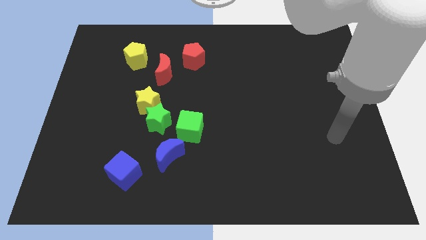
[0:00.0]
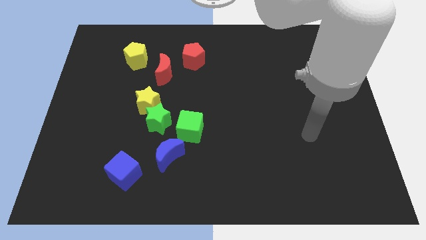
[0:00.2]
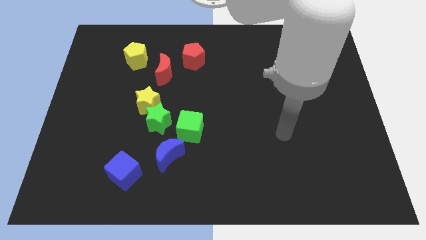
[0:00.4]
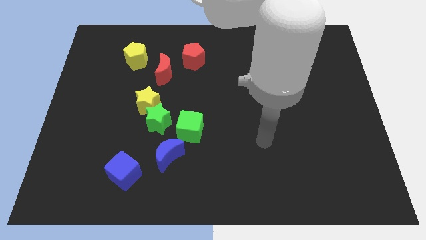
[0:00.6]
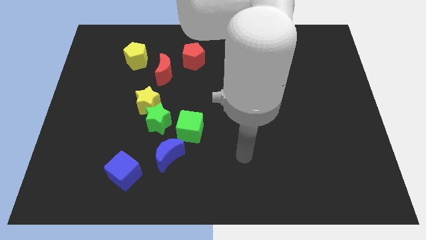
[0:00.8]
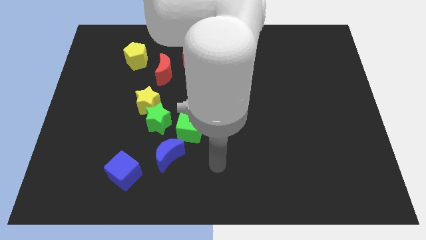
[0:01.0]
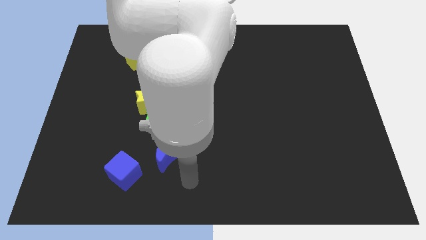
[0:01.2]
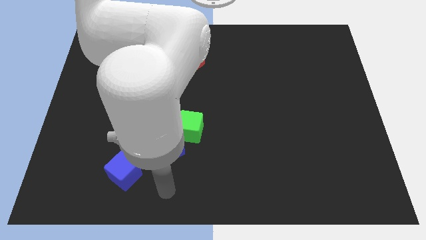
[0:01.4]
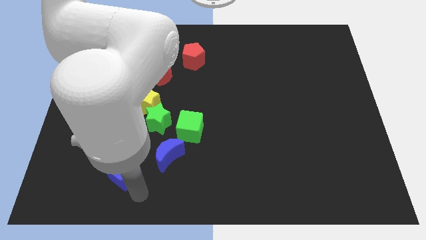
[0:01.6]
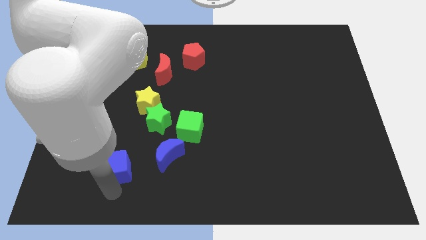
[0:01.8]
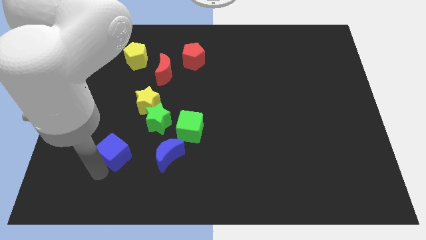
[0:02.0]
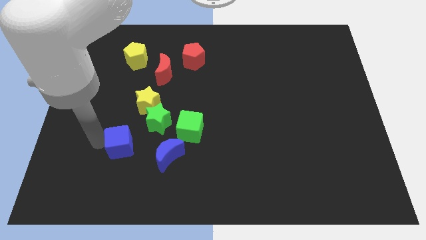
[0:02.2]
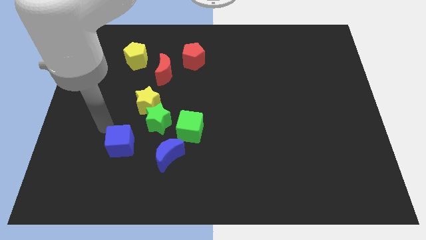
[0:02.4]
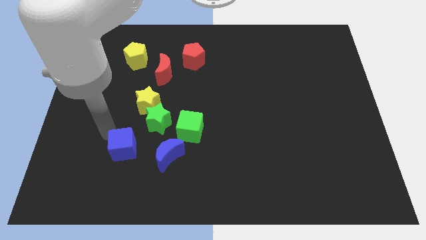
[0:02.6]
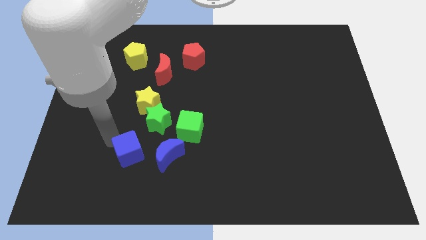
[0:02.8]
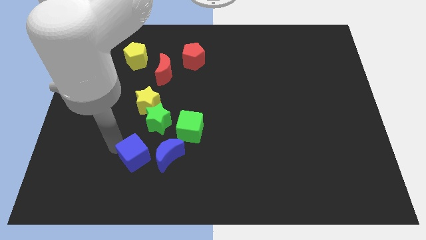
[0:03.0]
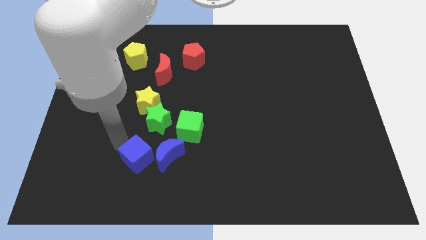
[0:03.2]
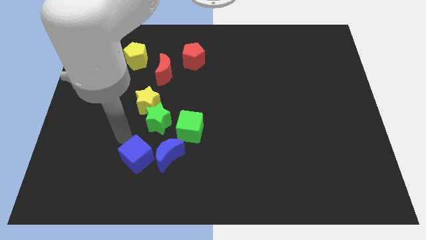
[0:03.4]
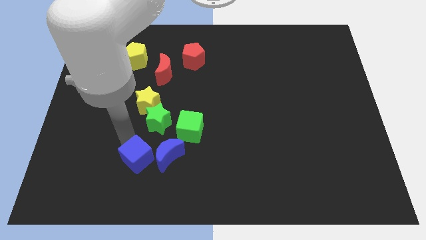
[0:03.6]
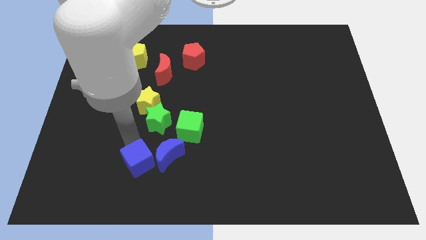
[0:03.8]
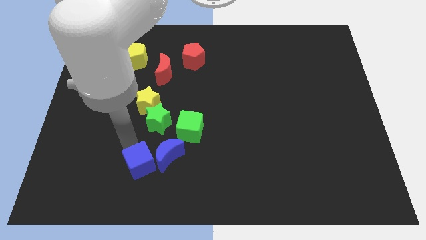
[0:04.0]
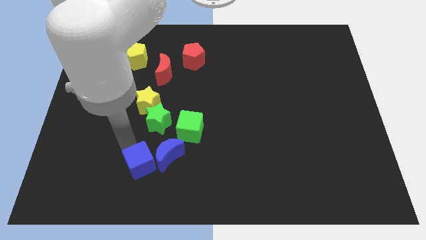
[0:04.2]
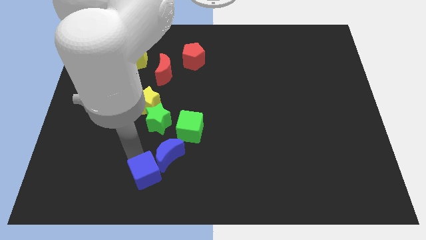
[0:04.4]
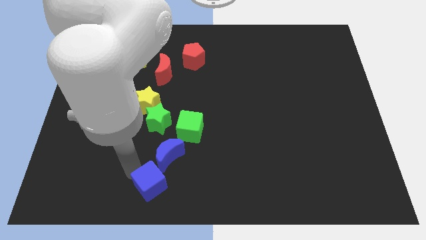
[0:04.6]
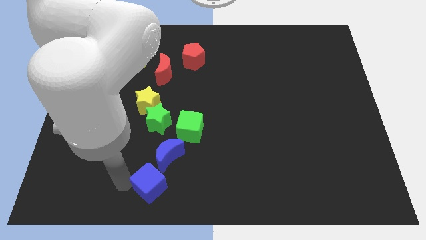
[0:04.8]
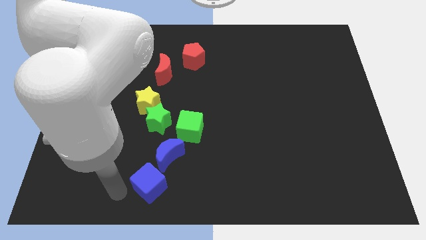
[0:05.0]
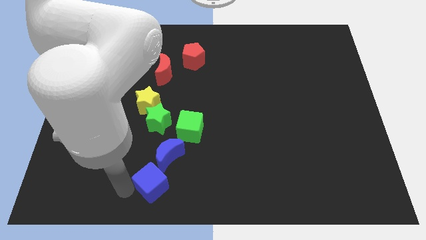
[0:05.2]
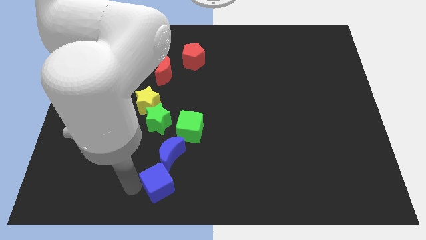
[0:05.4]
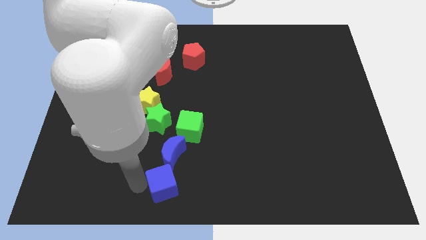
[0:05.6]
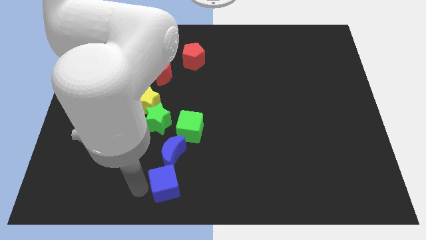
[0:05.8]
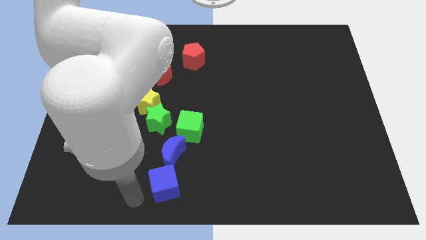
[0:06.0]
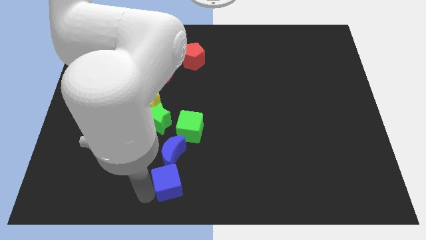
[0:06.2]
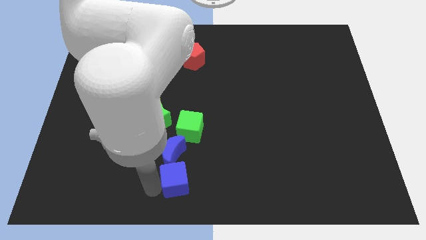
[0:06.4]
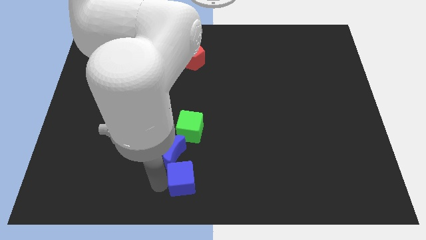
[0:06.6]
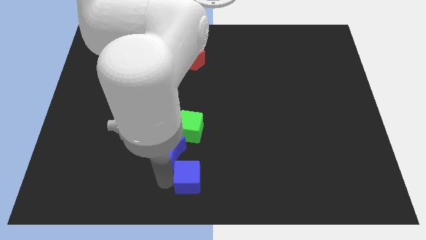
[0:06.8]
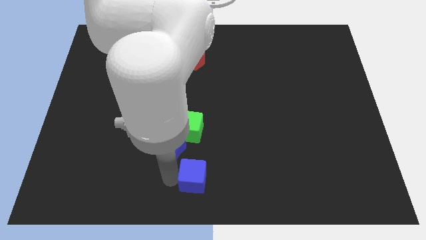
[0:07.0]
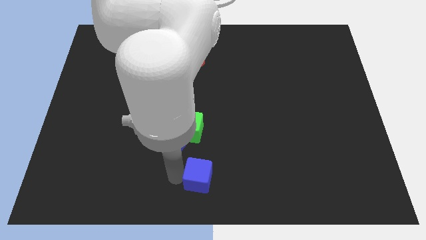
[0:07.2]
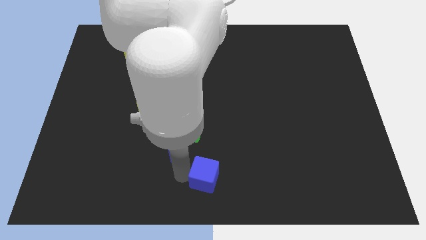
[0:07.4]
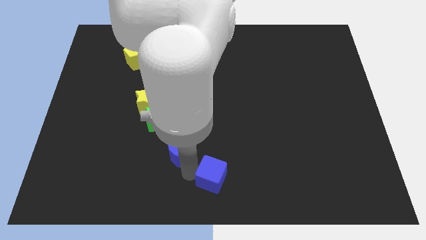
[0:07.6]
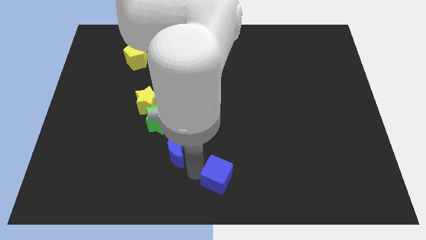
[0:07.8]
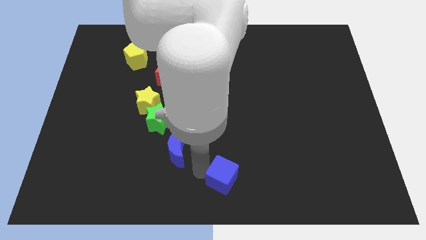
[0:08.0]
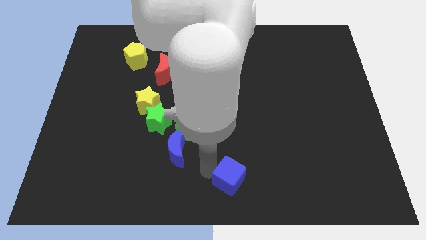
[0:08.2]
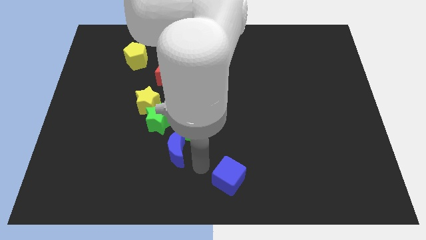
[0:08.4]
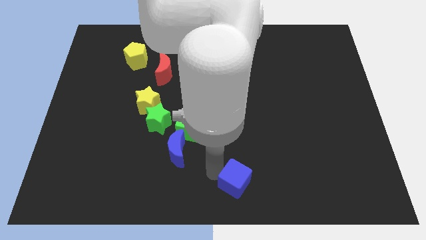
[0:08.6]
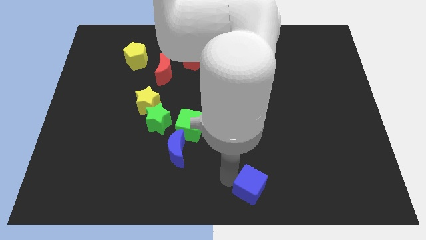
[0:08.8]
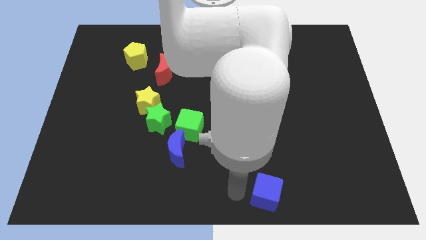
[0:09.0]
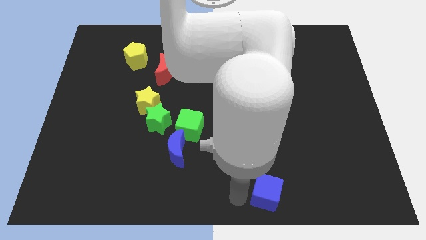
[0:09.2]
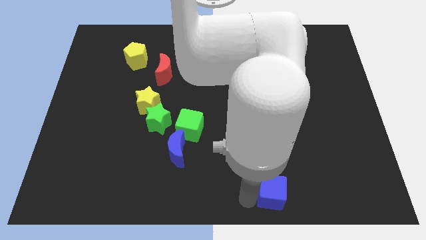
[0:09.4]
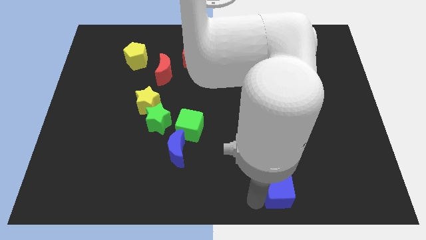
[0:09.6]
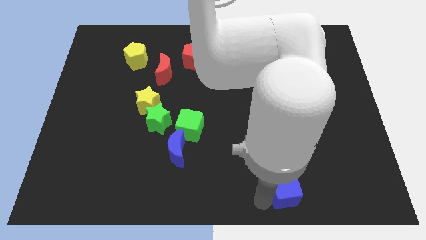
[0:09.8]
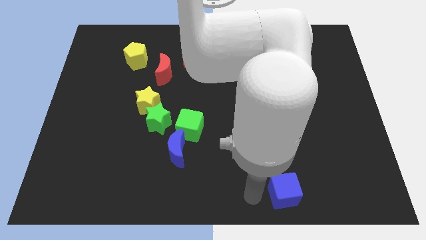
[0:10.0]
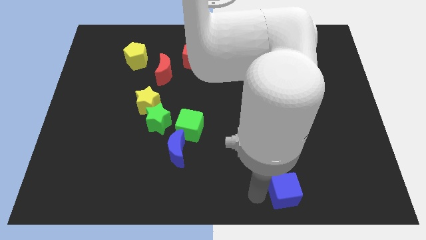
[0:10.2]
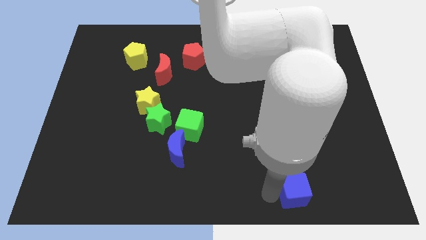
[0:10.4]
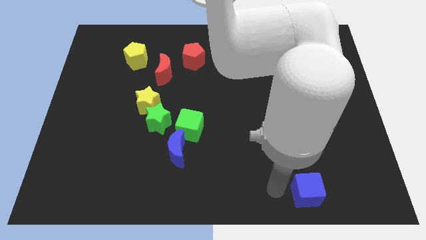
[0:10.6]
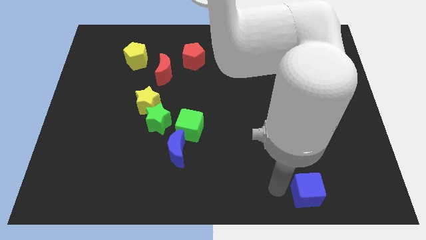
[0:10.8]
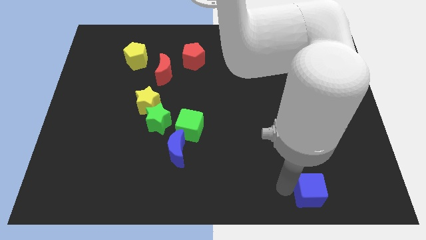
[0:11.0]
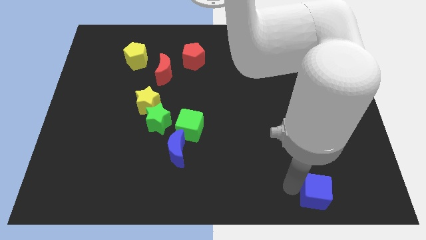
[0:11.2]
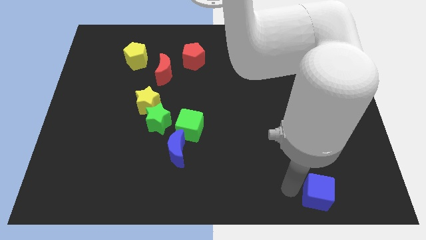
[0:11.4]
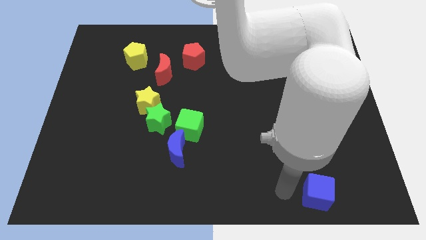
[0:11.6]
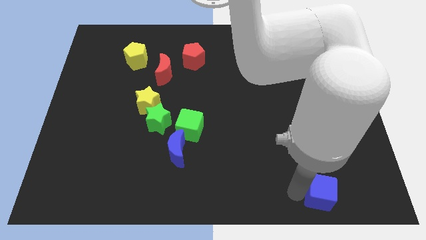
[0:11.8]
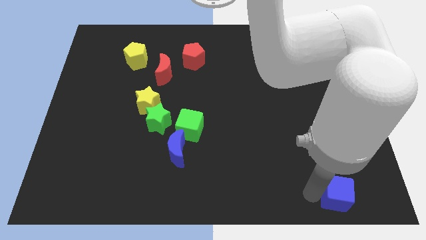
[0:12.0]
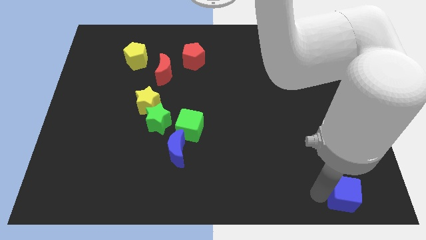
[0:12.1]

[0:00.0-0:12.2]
move the blue cube to the bottom right corner
